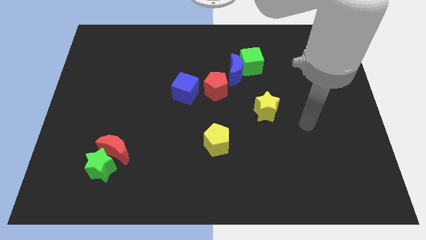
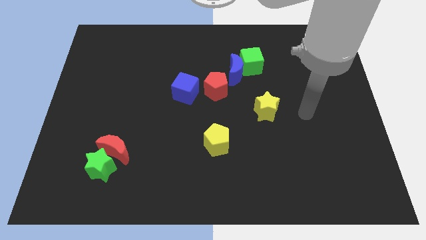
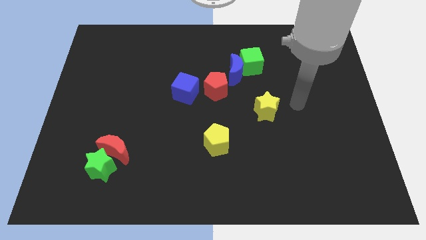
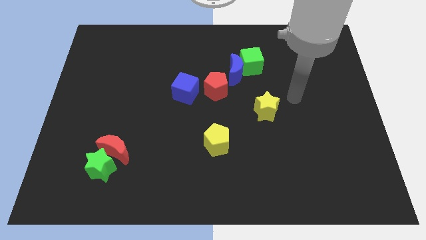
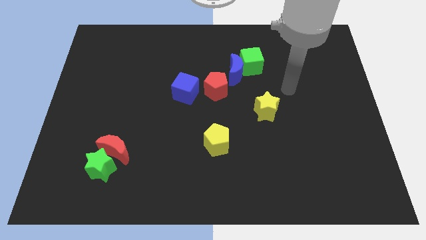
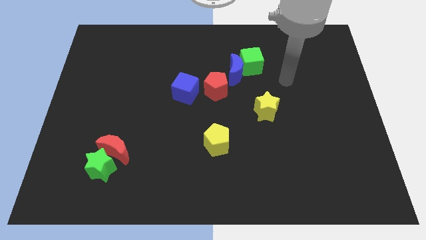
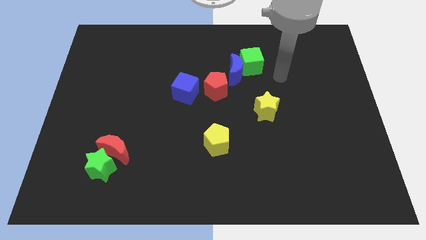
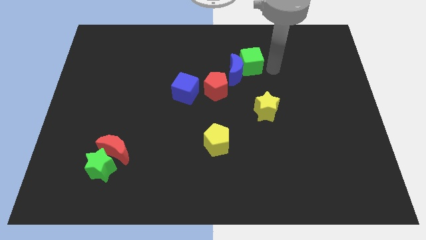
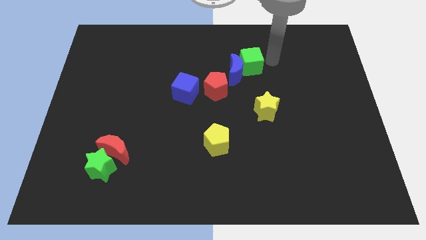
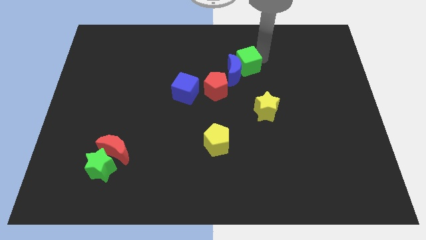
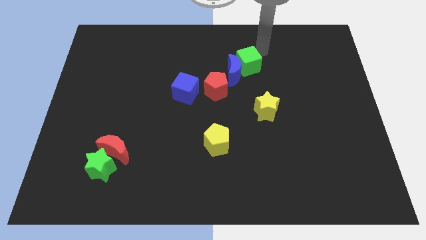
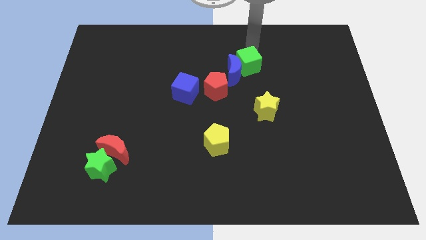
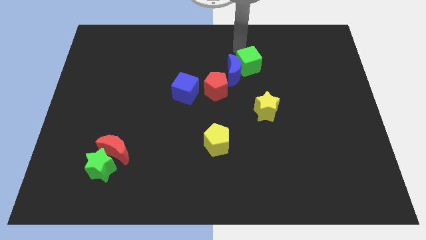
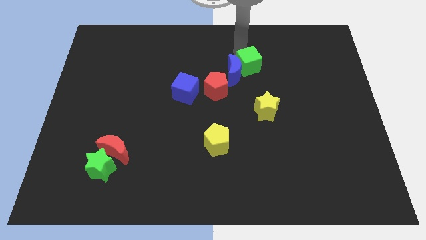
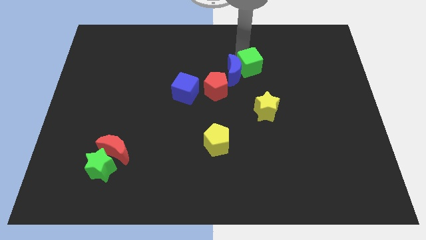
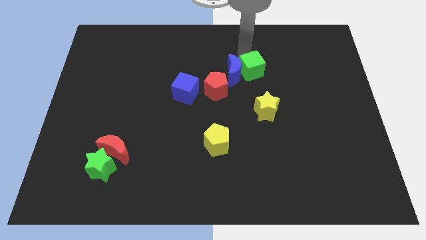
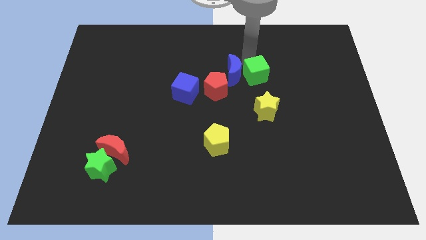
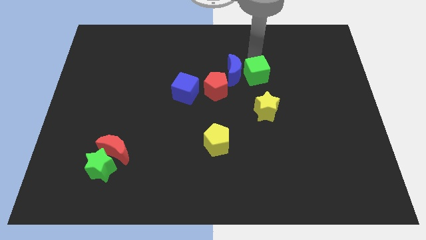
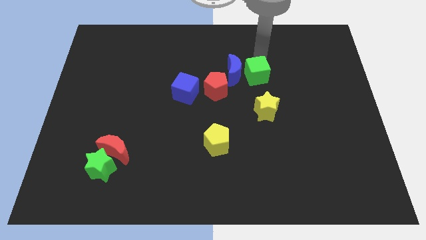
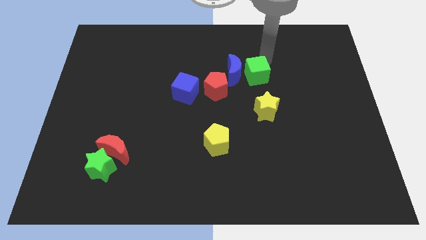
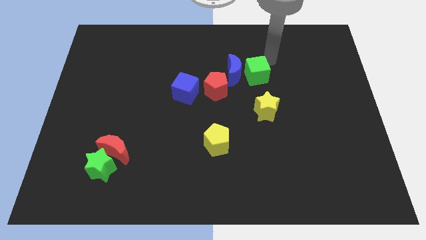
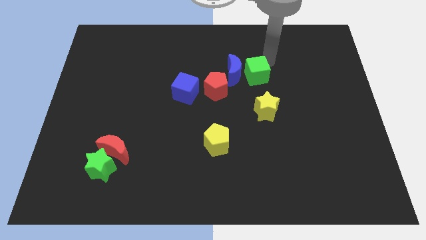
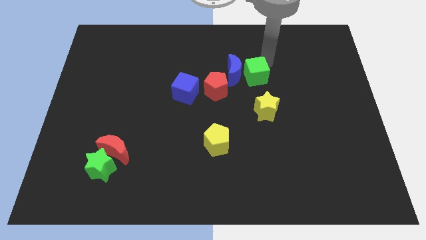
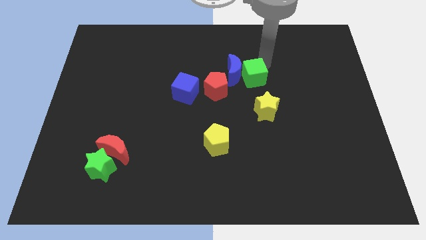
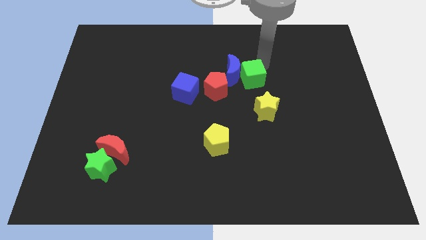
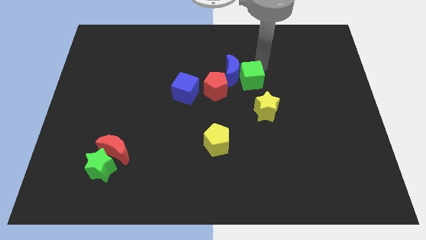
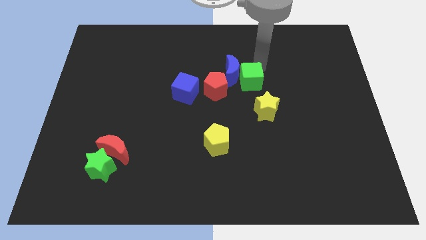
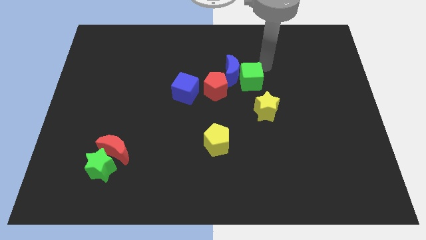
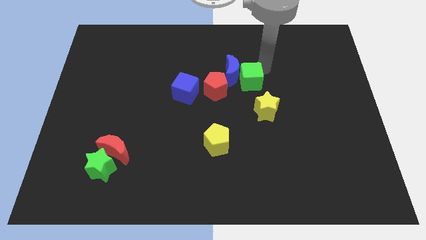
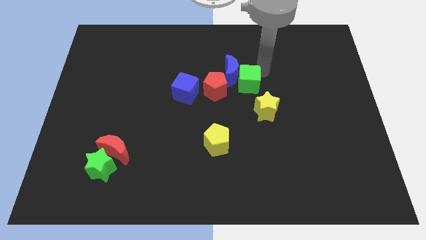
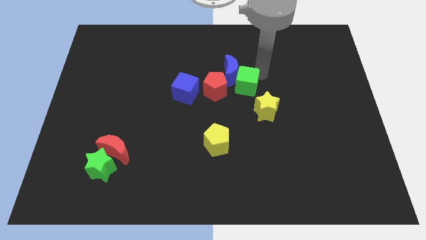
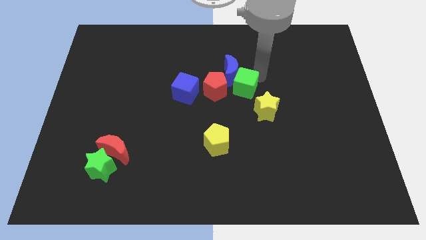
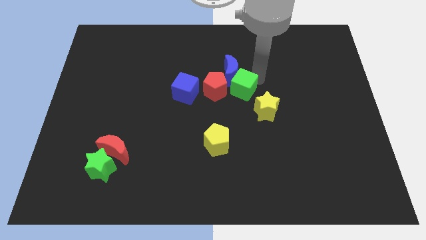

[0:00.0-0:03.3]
slide the green cube a bit down and to the left

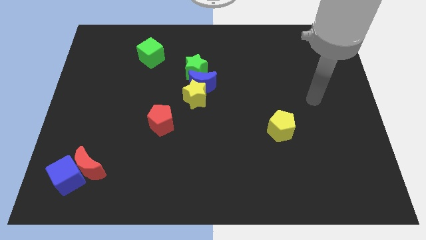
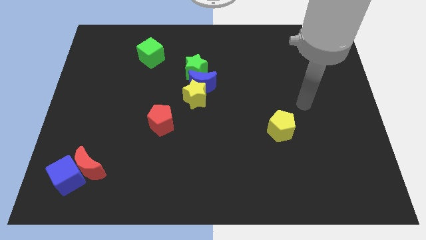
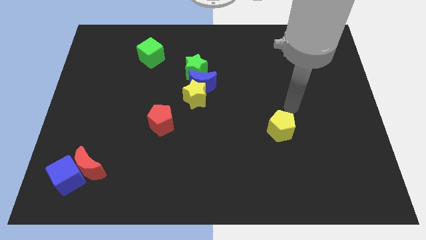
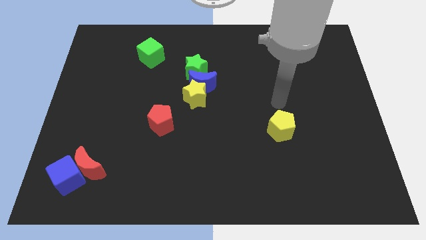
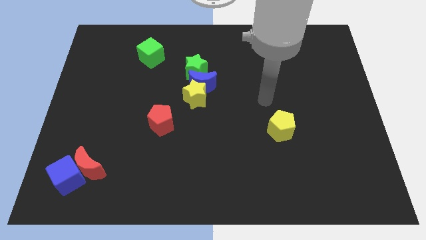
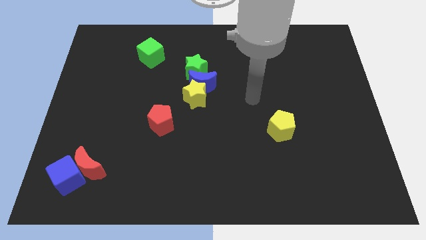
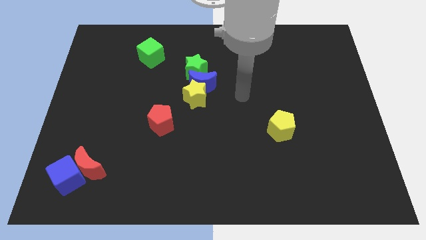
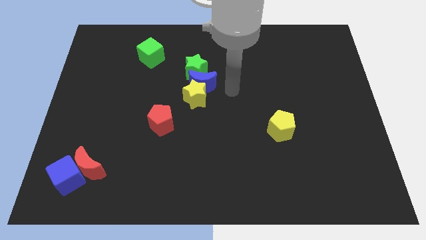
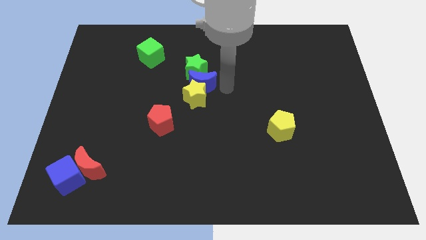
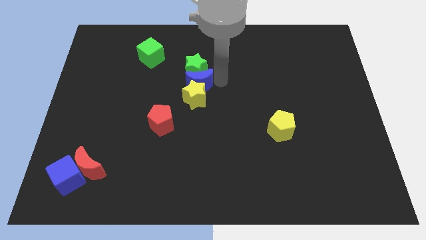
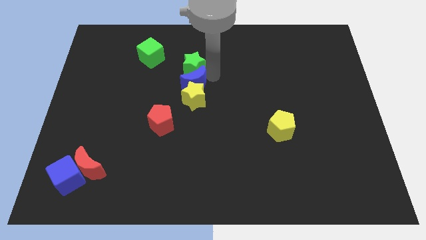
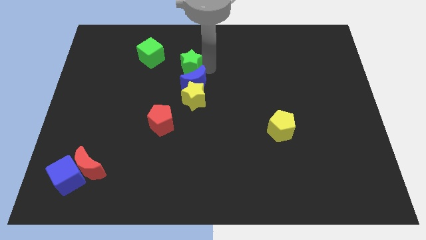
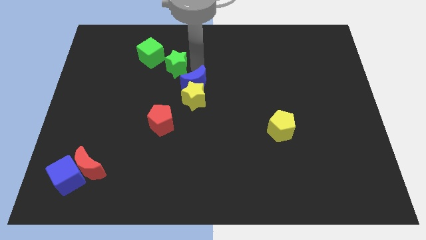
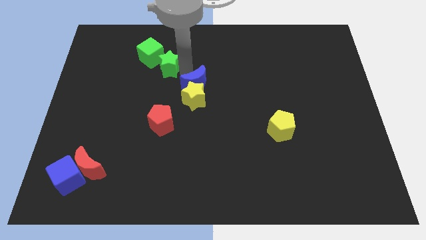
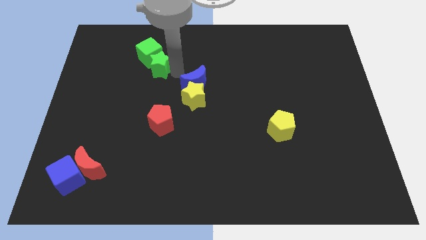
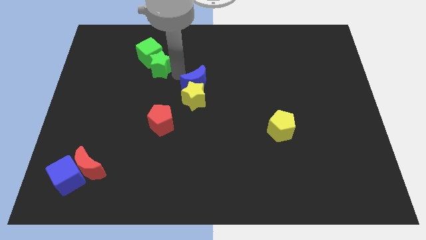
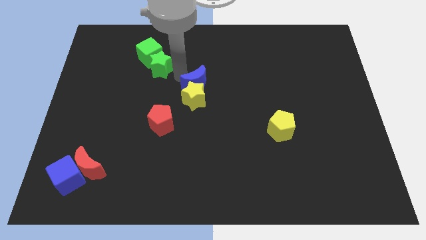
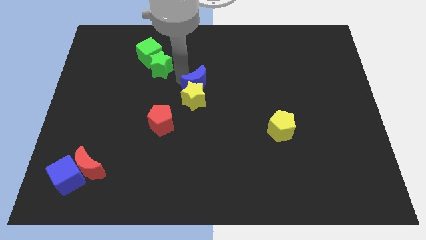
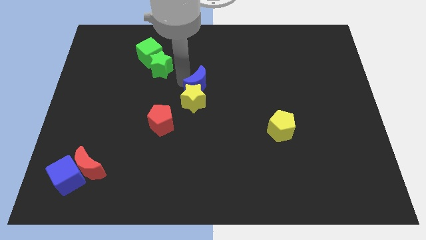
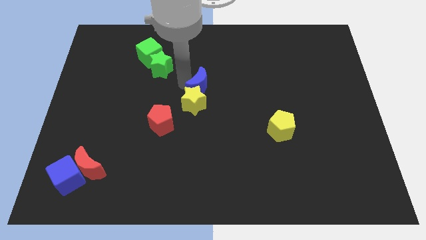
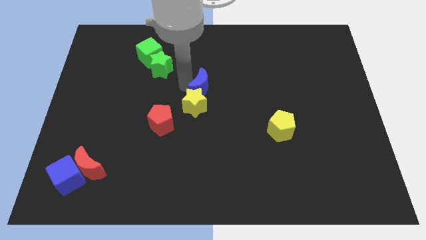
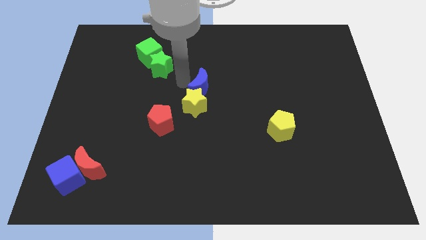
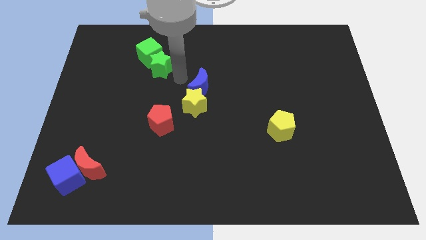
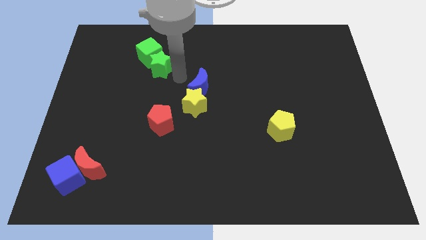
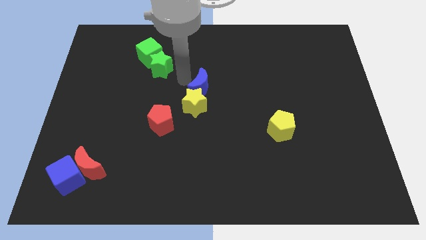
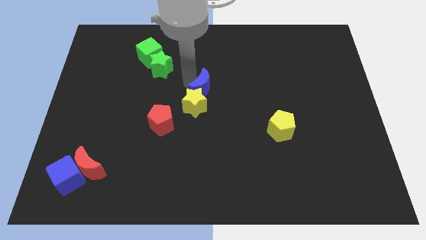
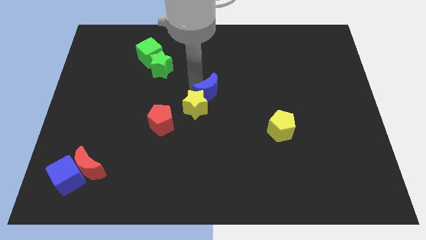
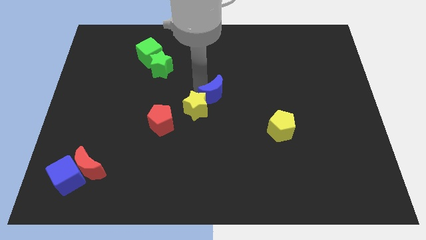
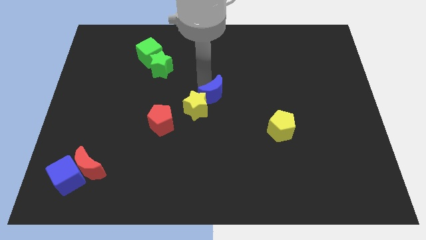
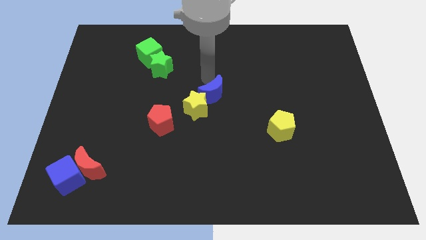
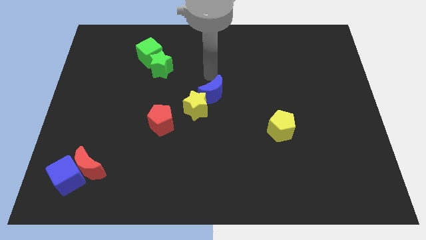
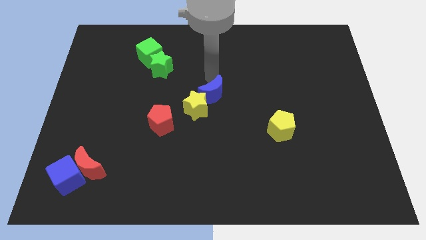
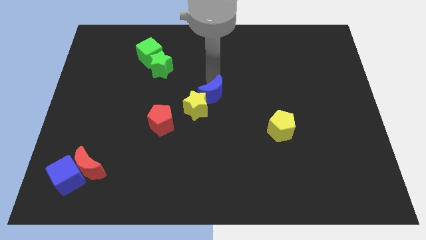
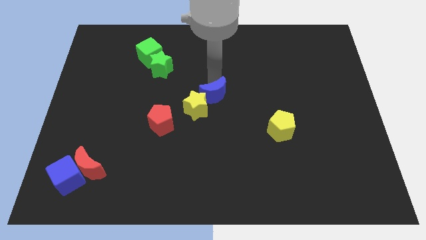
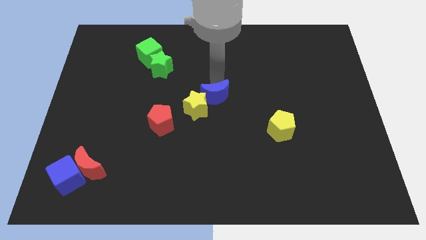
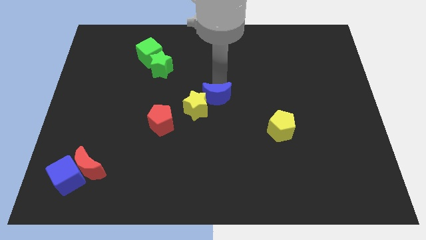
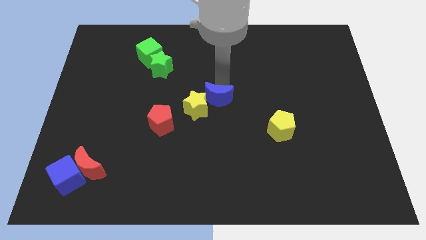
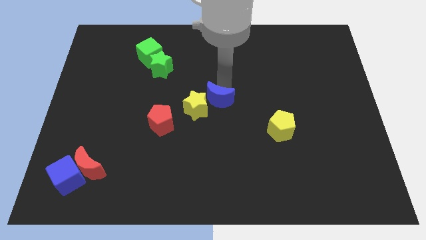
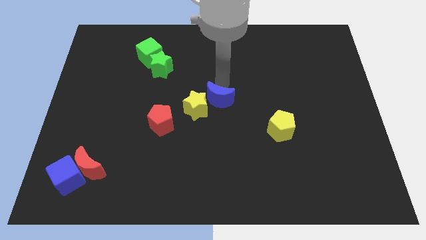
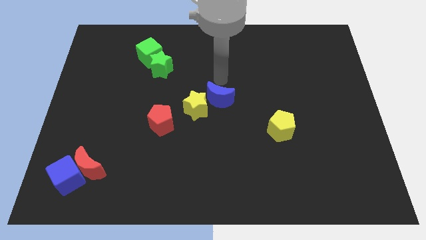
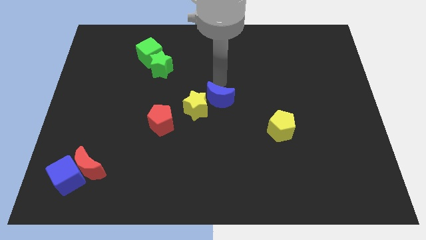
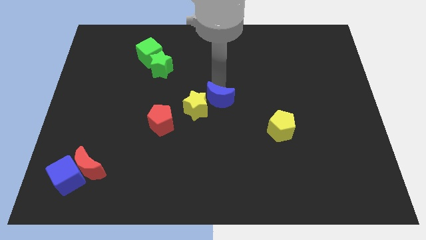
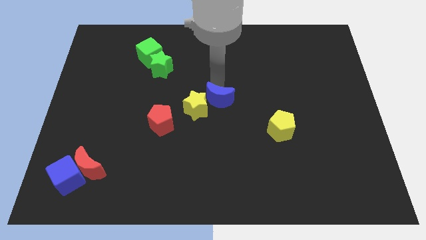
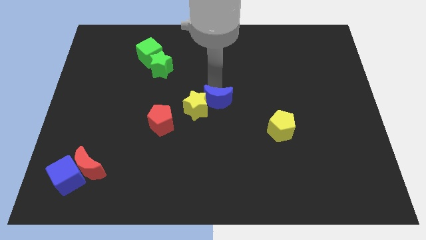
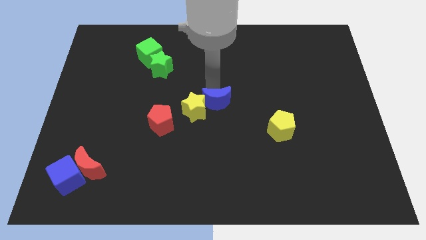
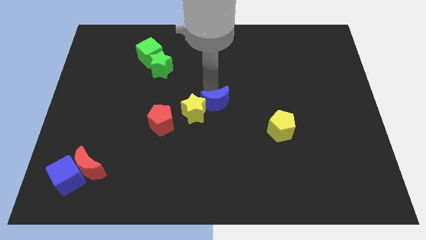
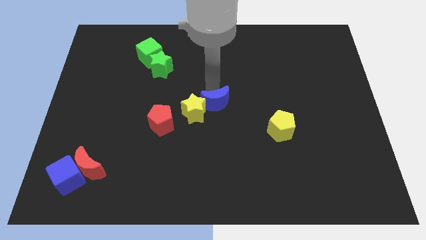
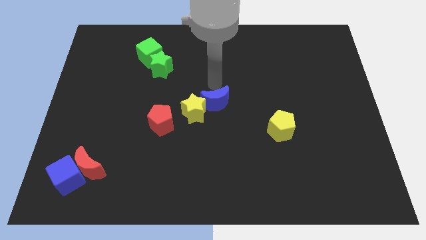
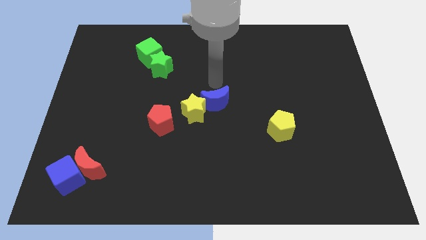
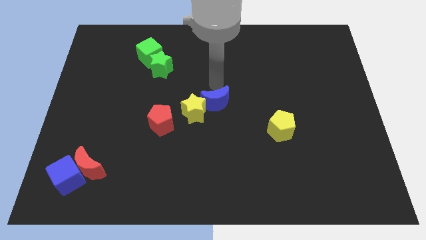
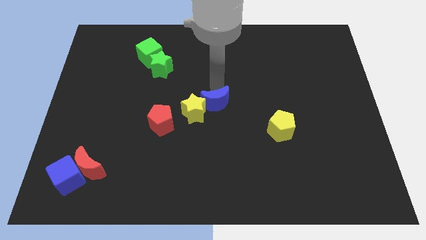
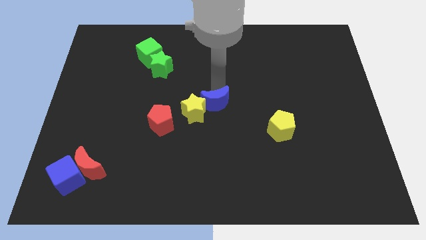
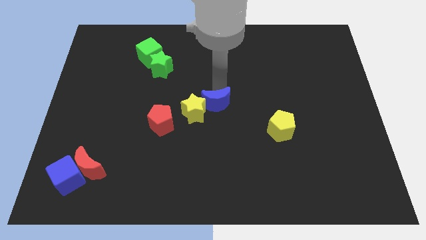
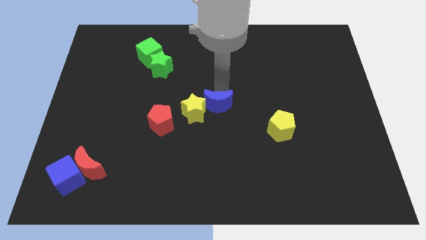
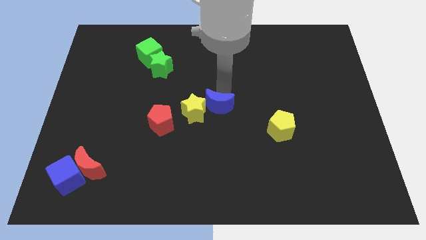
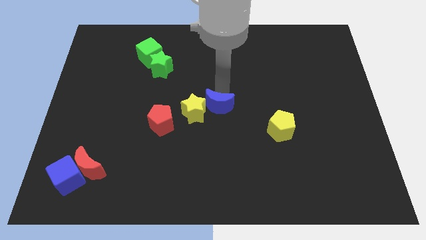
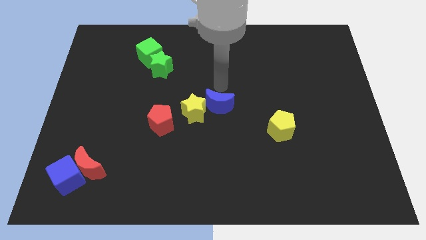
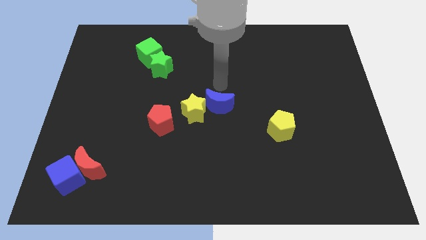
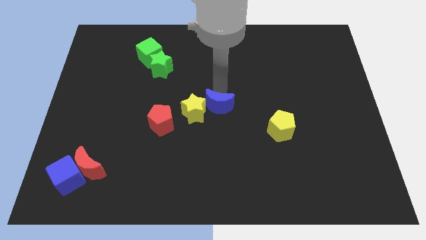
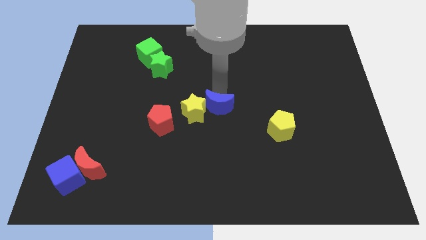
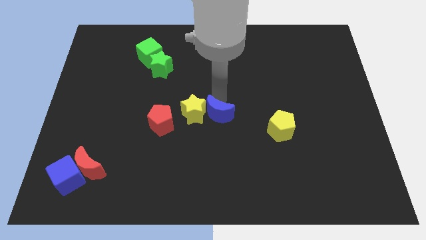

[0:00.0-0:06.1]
move the blue moon somewhat down
